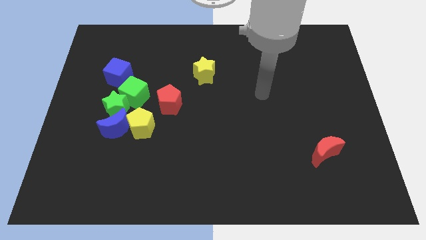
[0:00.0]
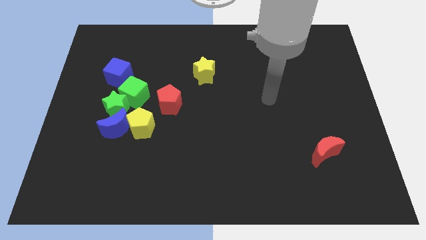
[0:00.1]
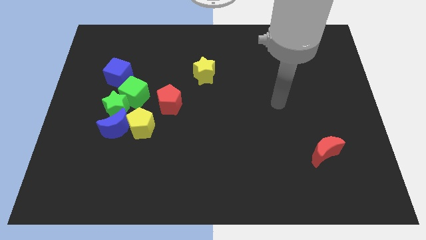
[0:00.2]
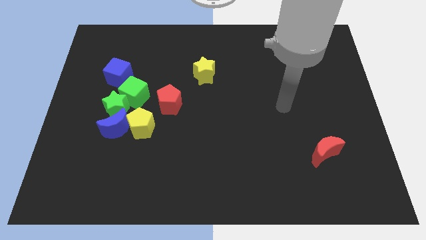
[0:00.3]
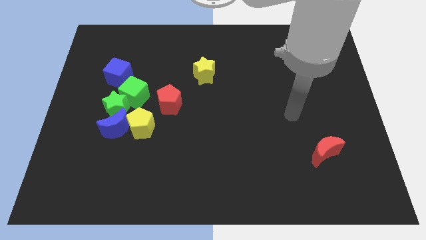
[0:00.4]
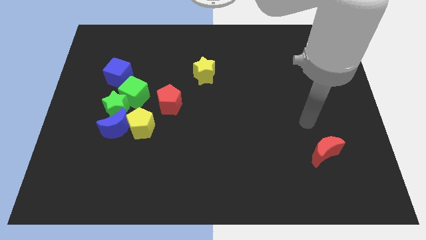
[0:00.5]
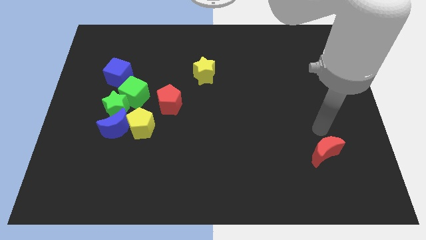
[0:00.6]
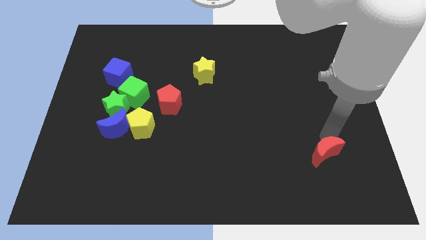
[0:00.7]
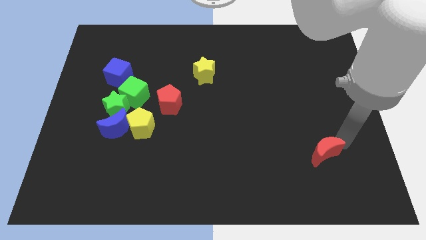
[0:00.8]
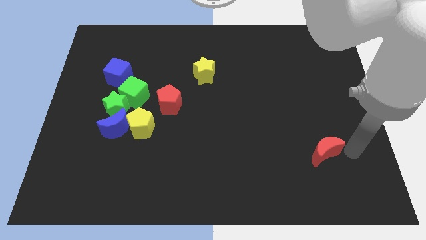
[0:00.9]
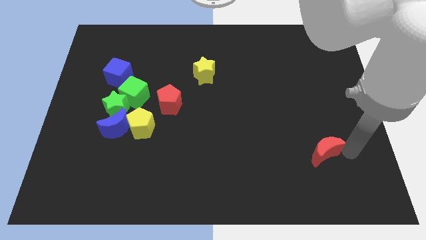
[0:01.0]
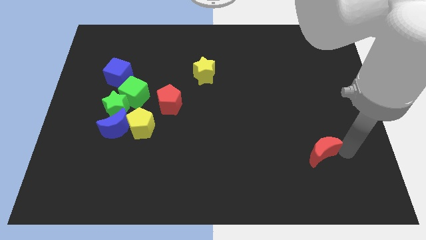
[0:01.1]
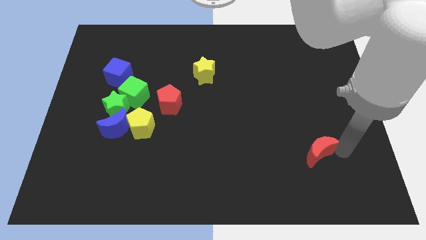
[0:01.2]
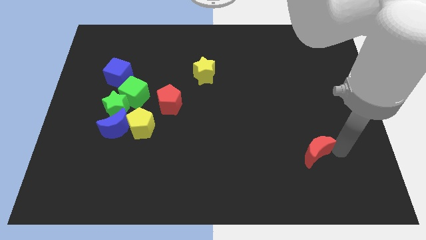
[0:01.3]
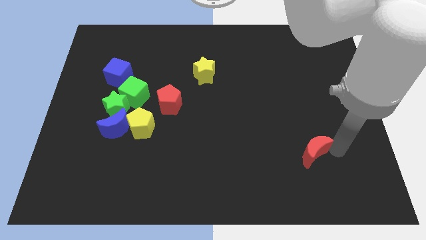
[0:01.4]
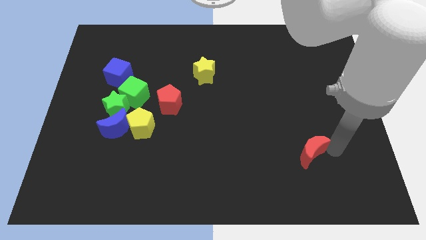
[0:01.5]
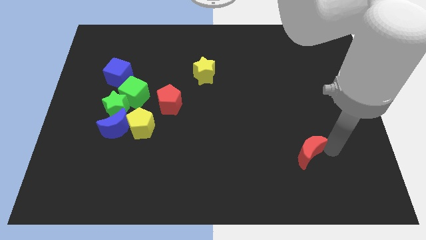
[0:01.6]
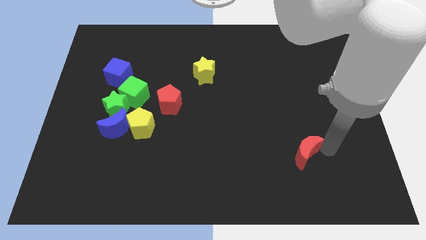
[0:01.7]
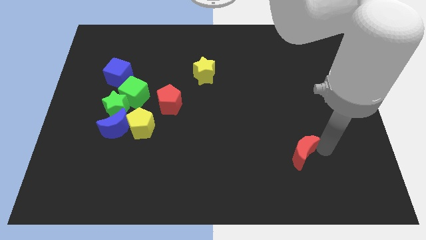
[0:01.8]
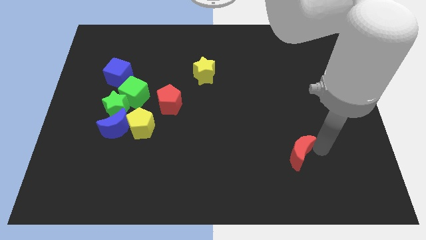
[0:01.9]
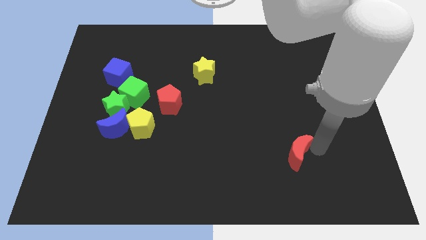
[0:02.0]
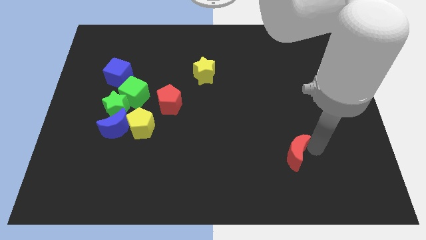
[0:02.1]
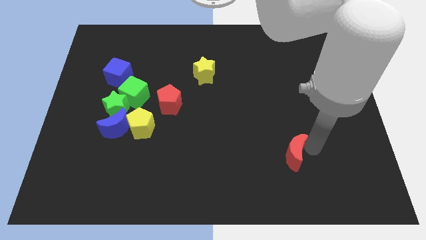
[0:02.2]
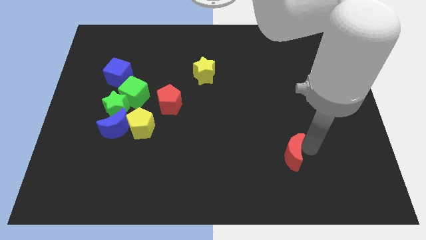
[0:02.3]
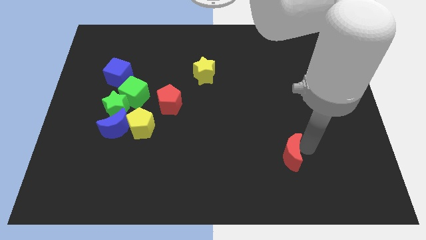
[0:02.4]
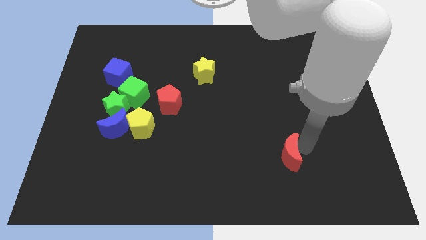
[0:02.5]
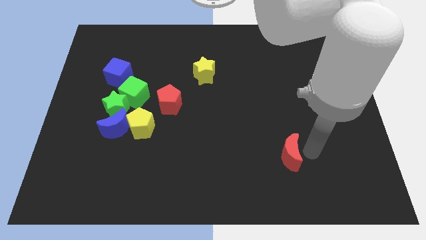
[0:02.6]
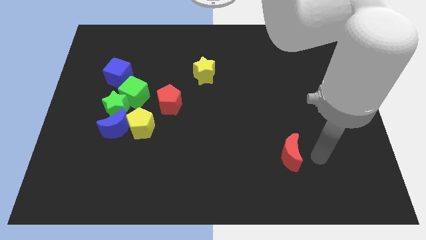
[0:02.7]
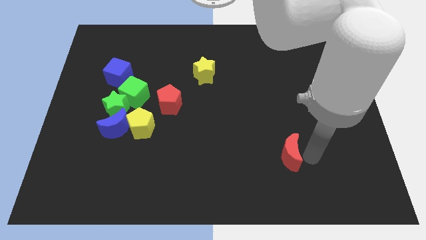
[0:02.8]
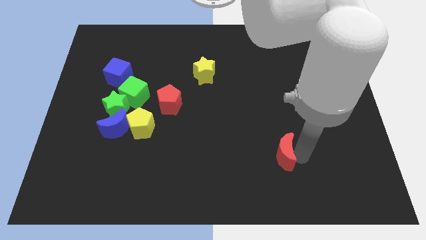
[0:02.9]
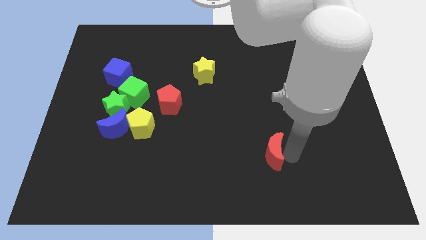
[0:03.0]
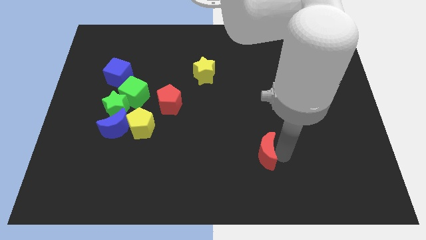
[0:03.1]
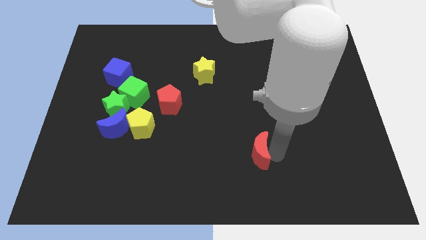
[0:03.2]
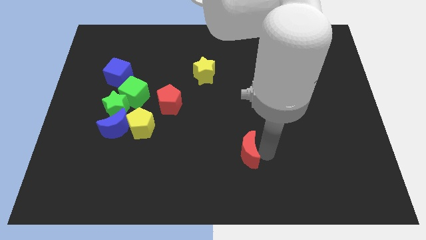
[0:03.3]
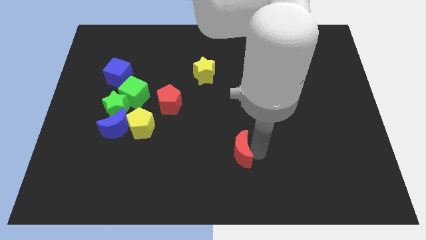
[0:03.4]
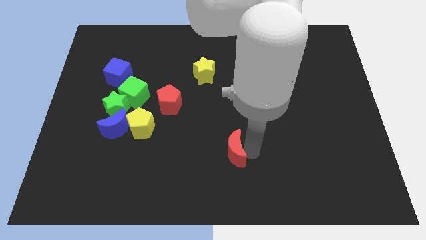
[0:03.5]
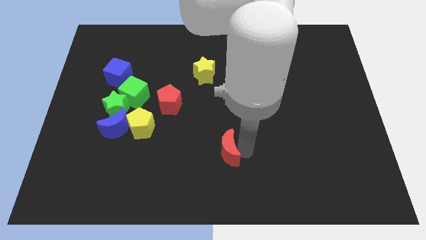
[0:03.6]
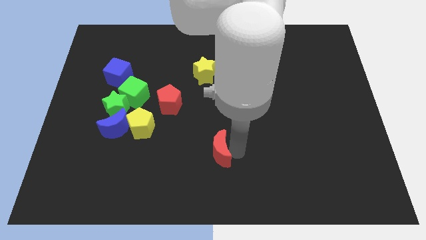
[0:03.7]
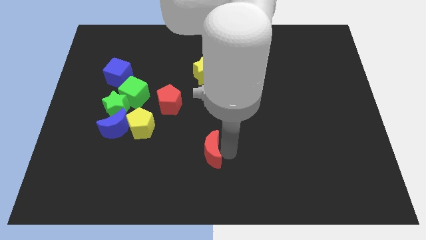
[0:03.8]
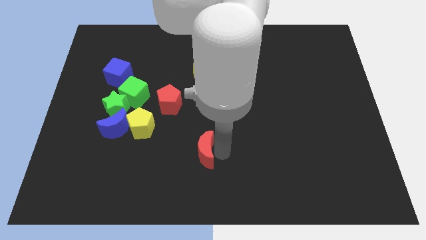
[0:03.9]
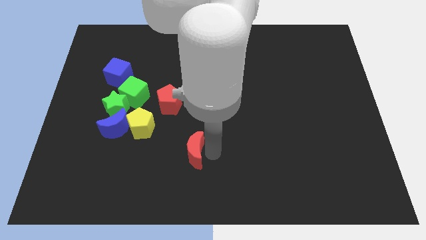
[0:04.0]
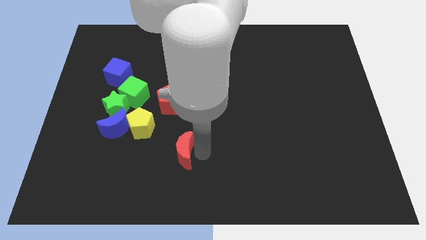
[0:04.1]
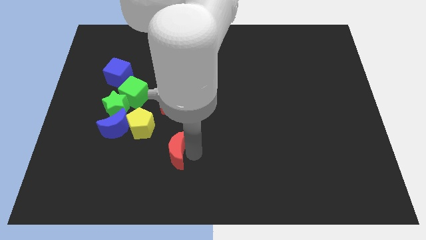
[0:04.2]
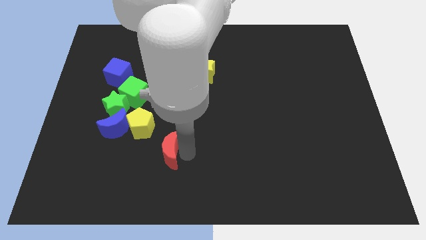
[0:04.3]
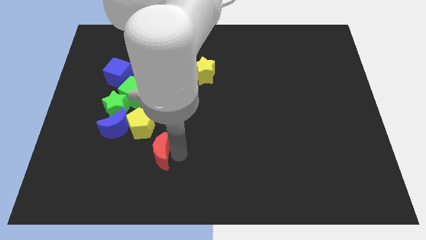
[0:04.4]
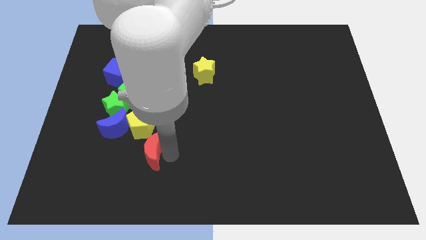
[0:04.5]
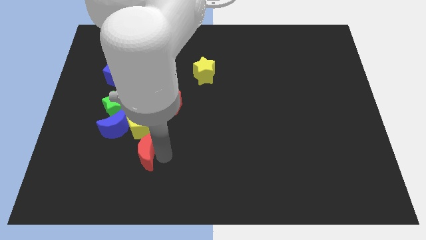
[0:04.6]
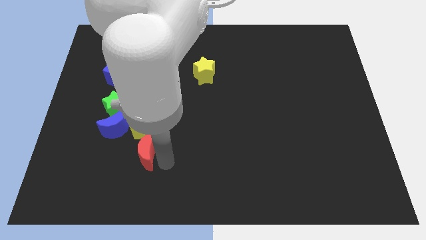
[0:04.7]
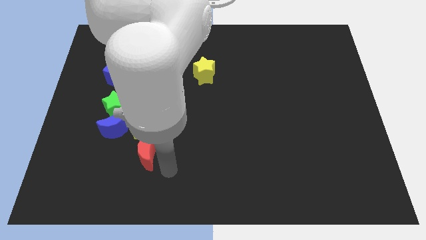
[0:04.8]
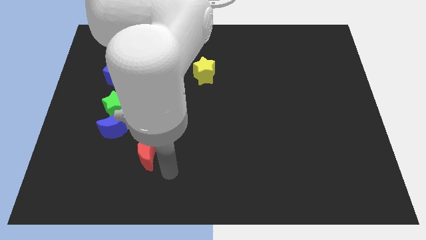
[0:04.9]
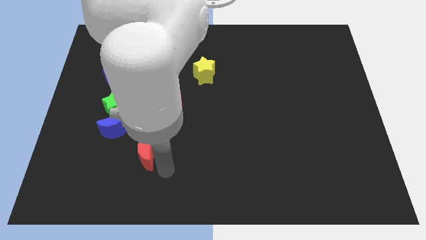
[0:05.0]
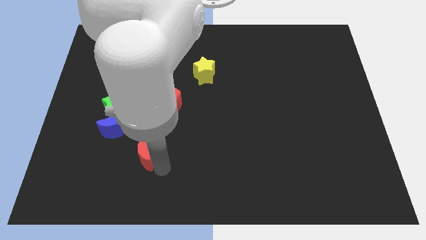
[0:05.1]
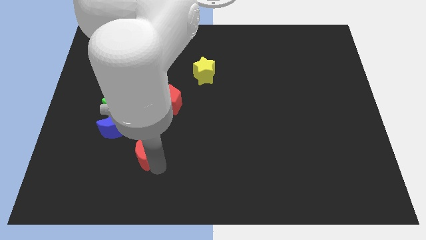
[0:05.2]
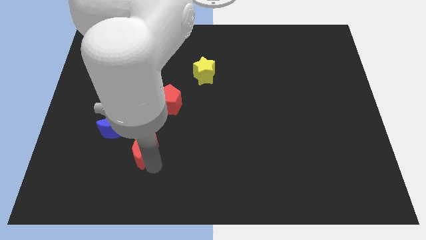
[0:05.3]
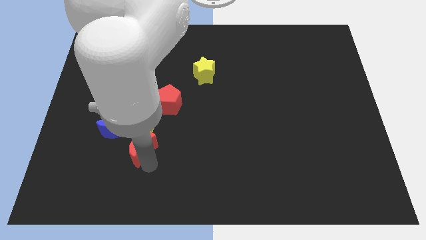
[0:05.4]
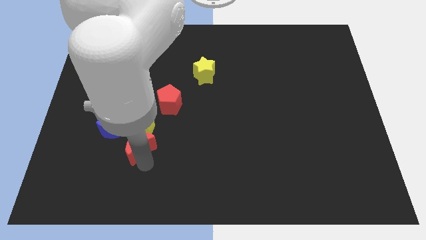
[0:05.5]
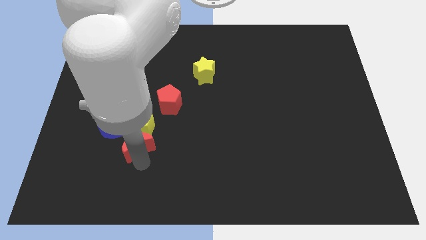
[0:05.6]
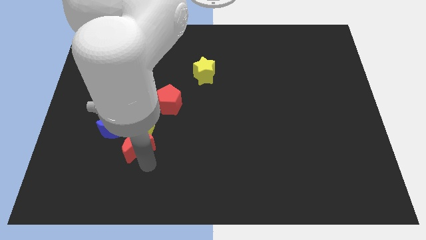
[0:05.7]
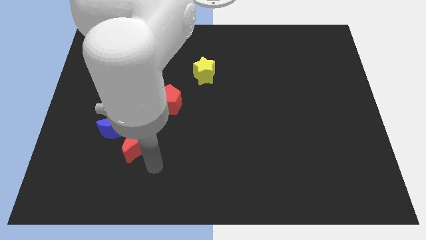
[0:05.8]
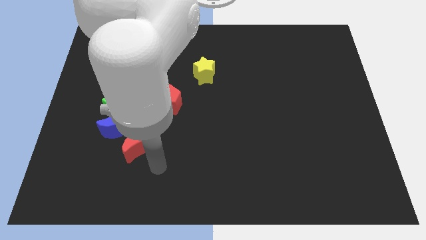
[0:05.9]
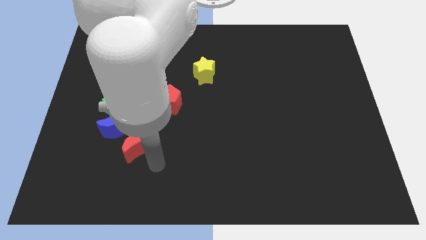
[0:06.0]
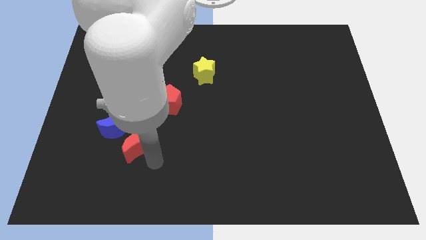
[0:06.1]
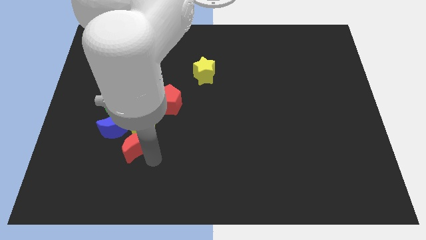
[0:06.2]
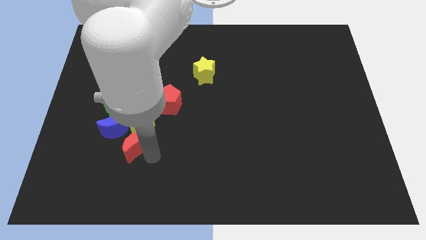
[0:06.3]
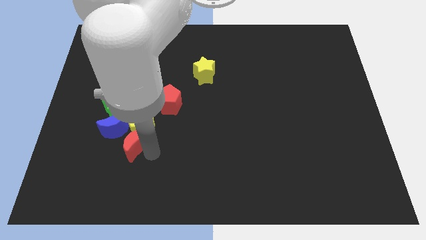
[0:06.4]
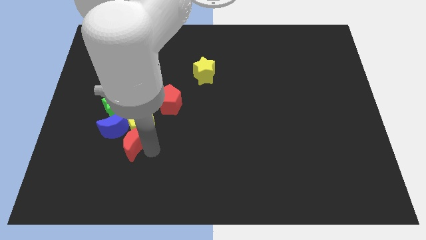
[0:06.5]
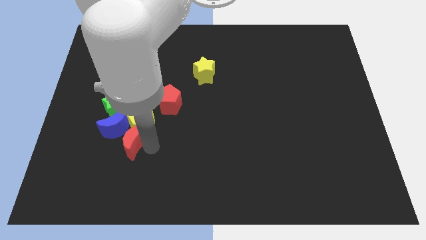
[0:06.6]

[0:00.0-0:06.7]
push the red moon to the blue moon
